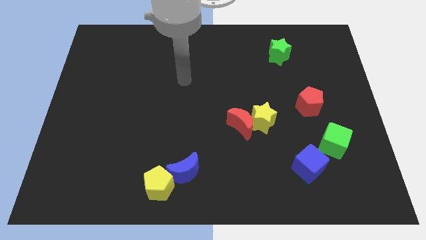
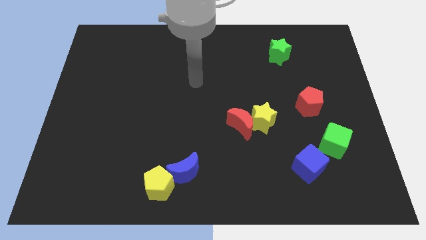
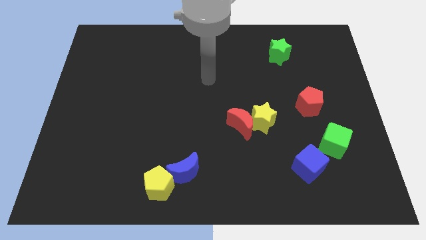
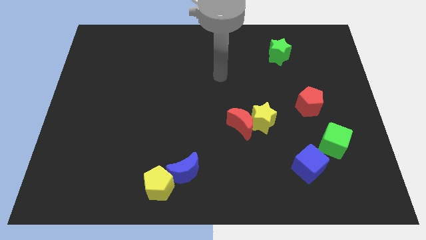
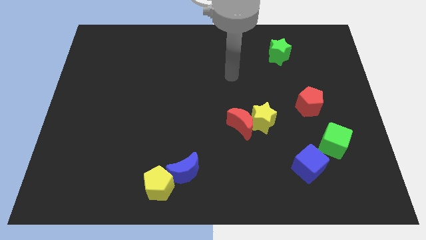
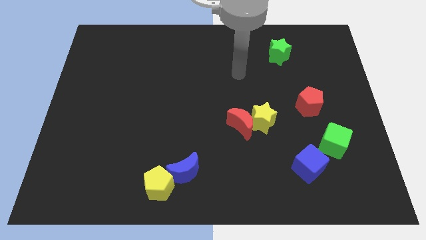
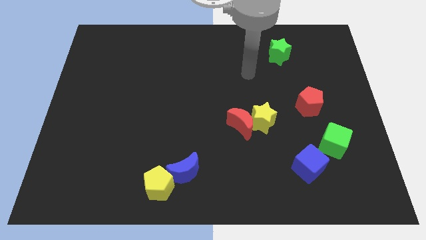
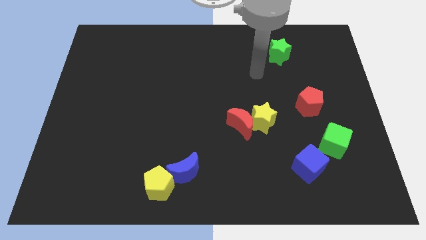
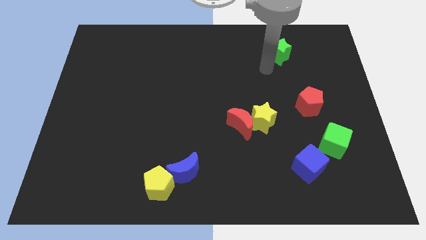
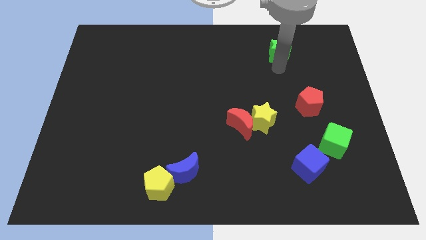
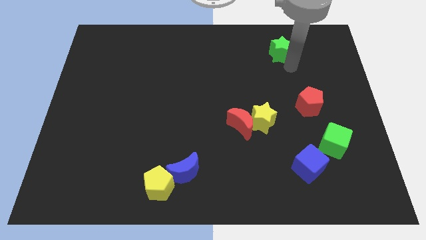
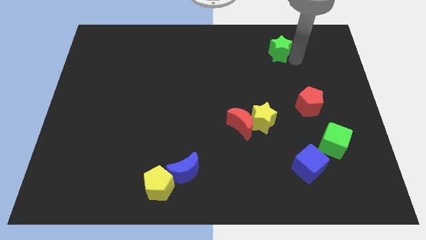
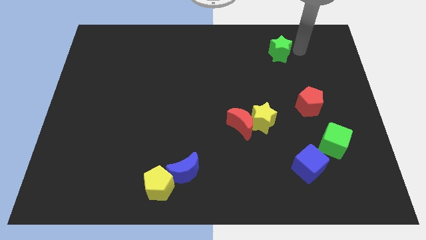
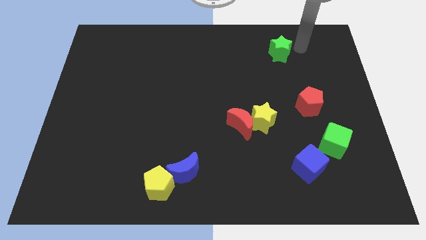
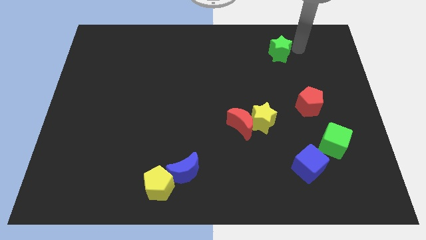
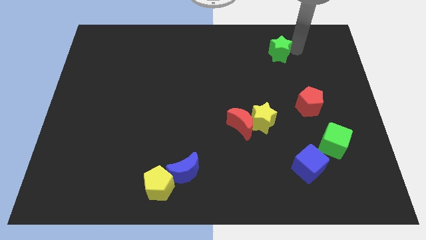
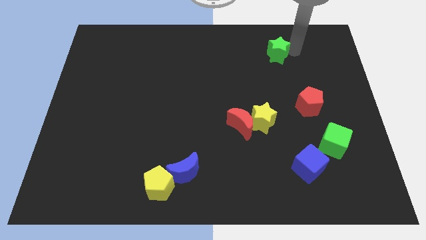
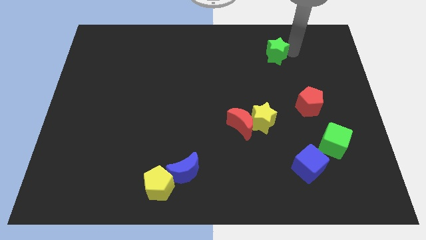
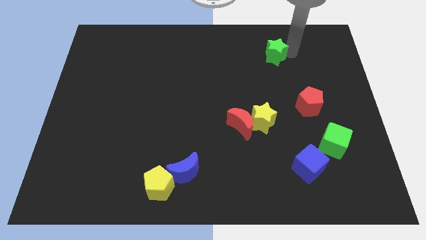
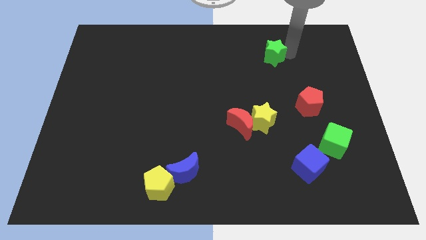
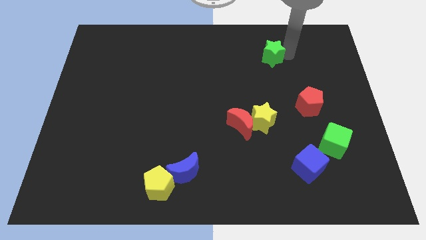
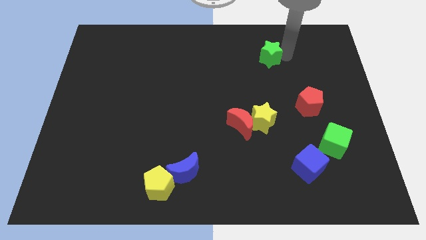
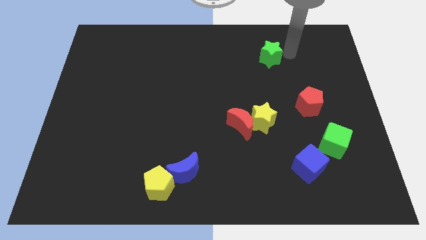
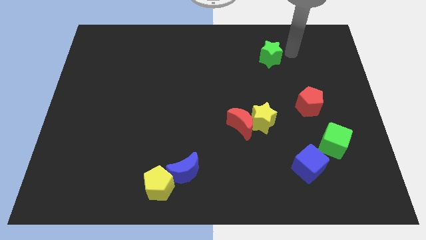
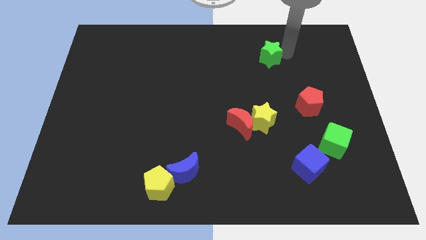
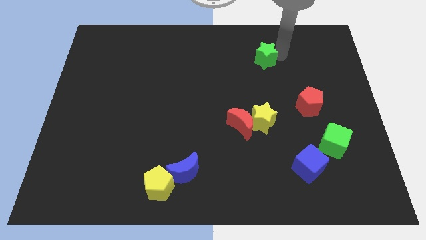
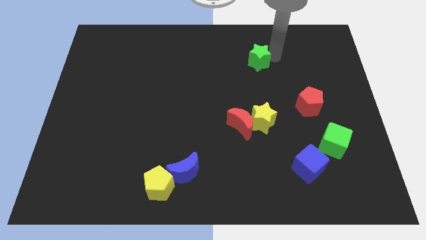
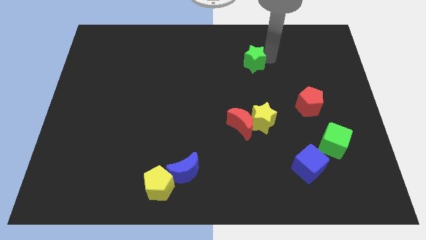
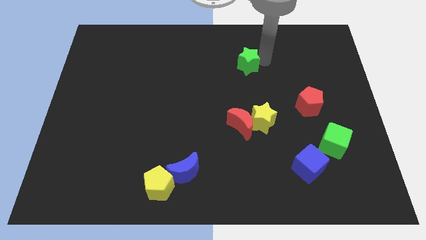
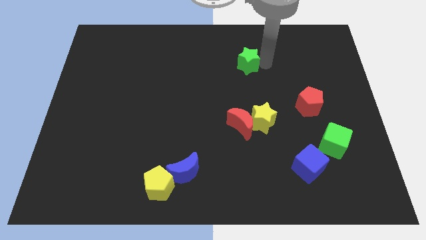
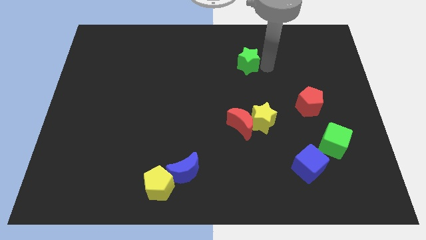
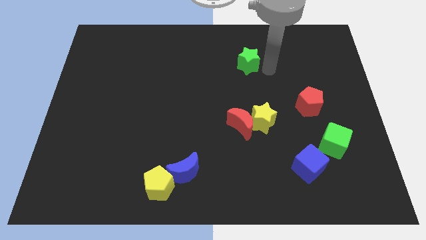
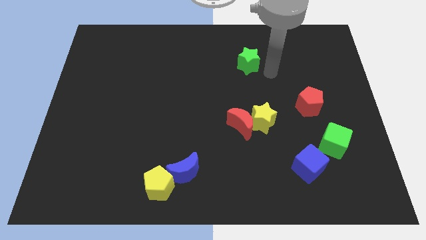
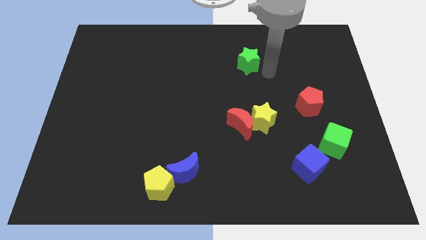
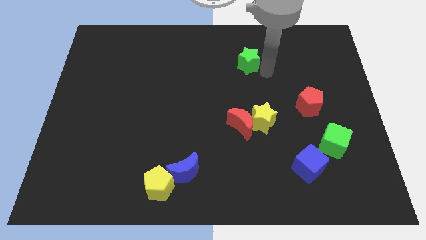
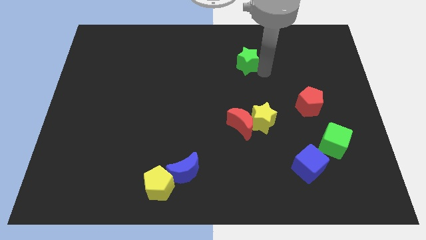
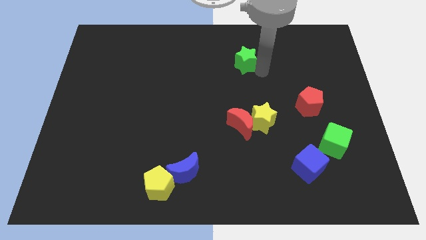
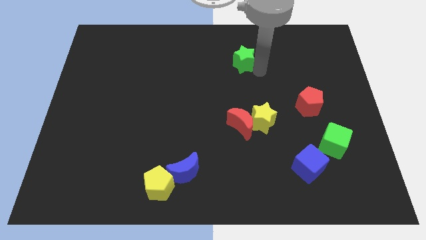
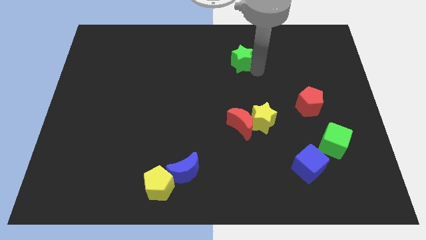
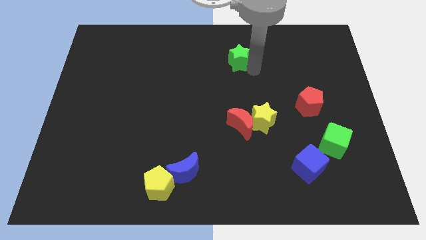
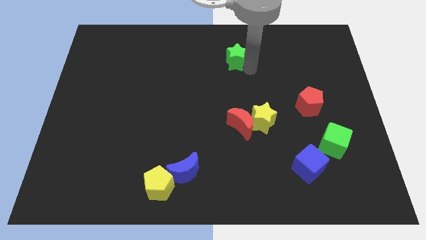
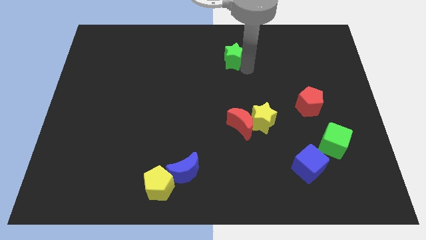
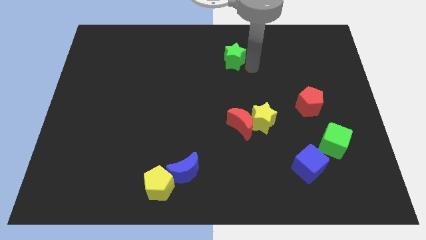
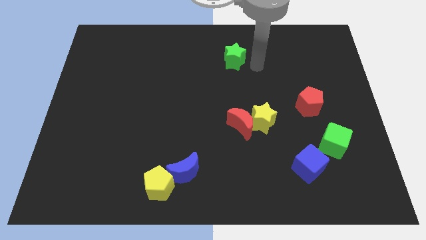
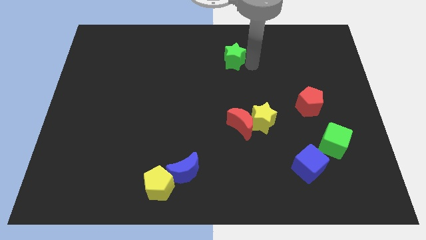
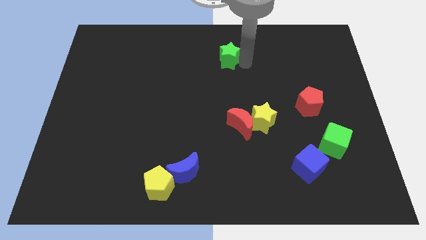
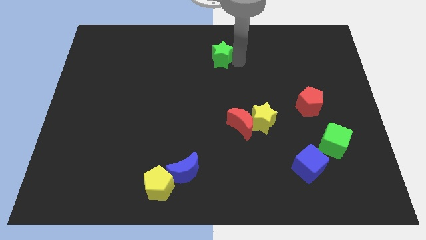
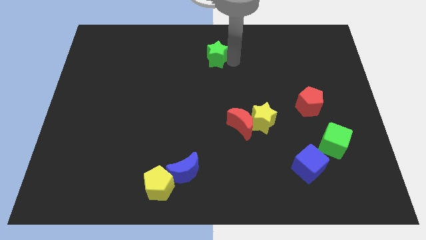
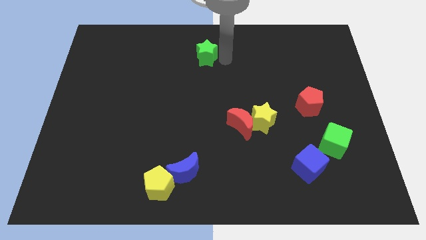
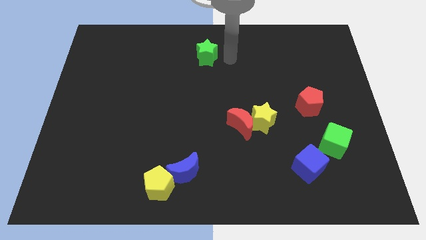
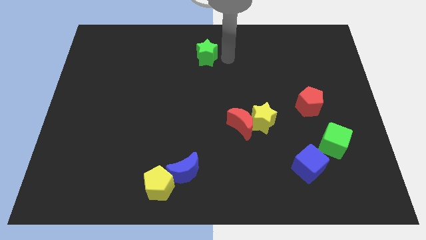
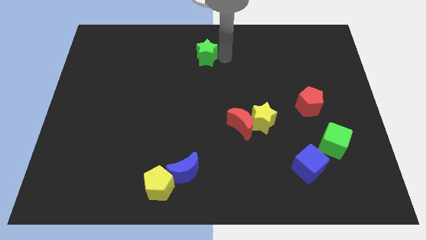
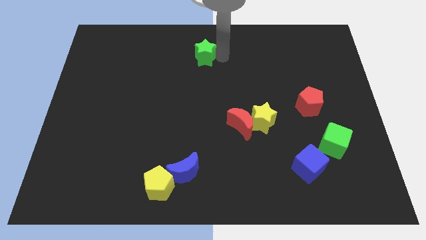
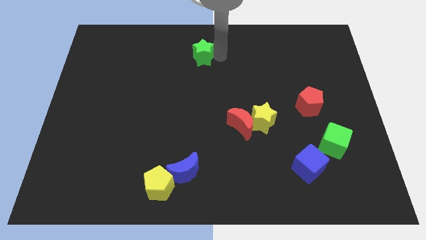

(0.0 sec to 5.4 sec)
slide the green star left

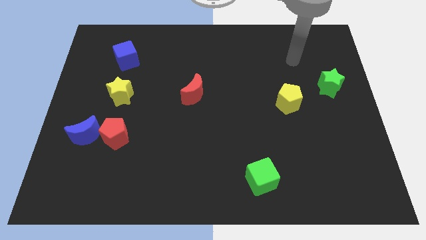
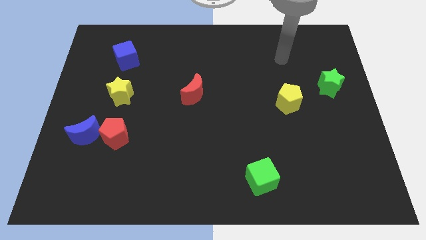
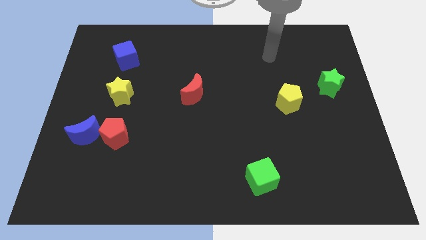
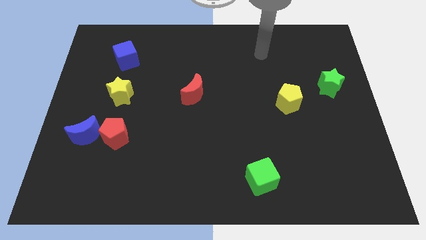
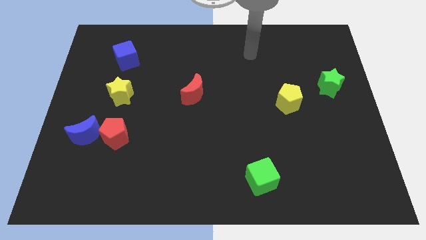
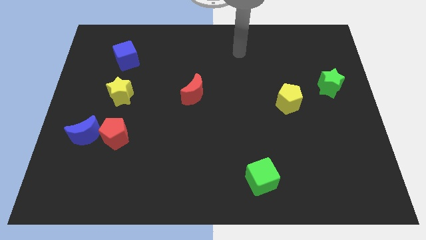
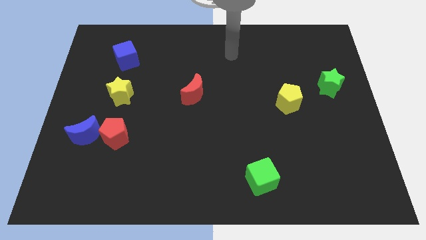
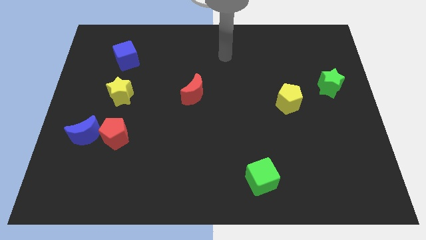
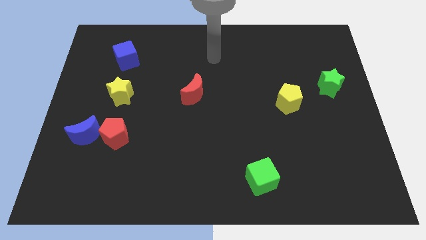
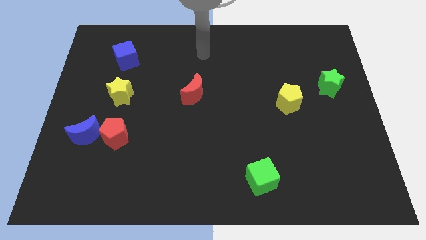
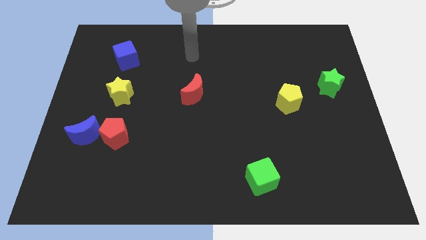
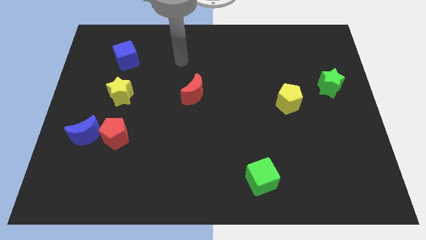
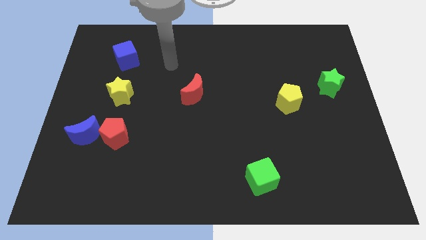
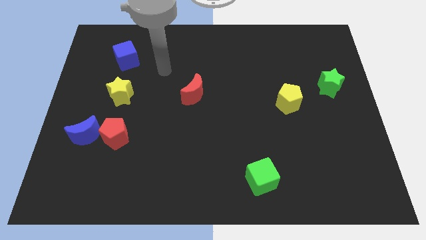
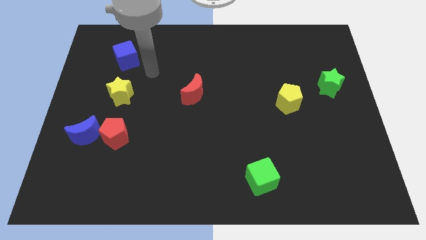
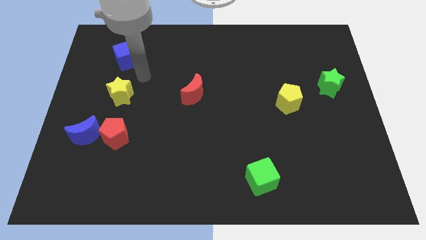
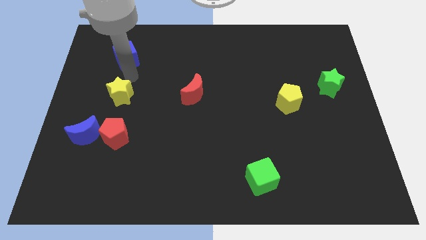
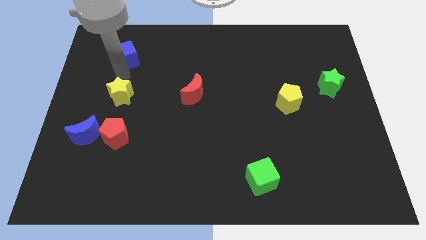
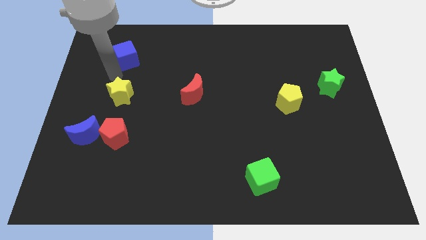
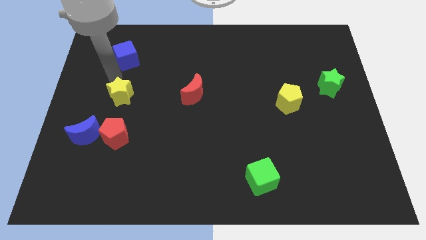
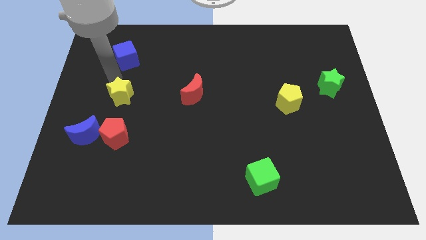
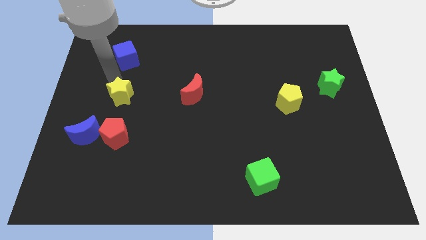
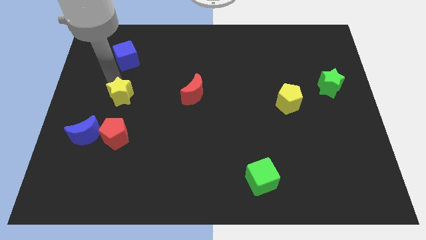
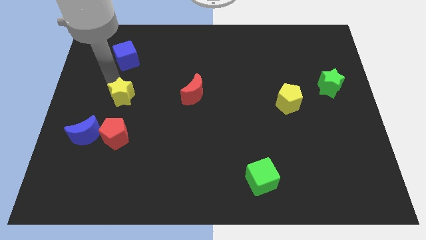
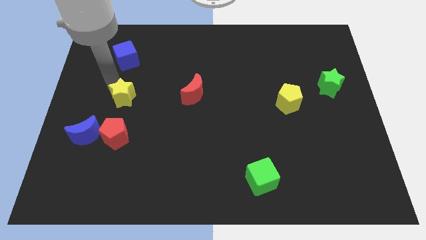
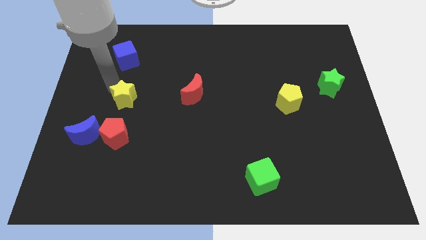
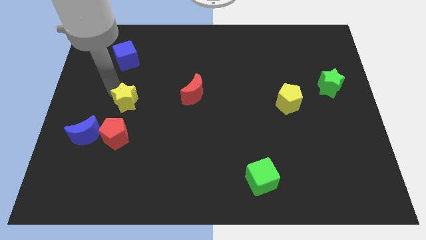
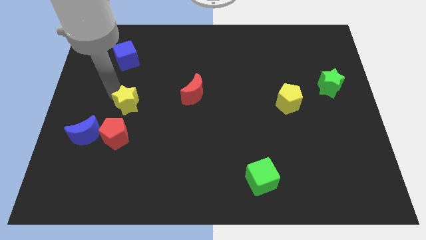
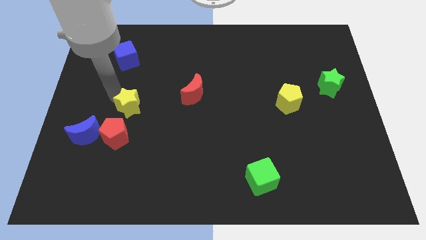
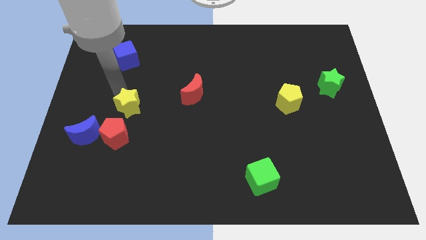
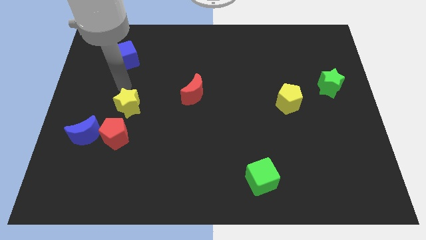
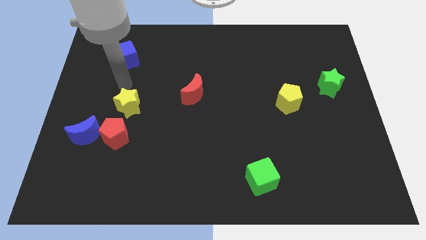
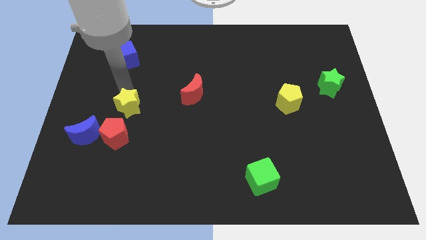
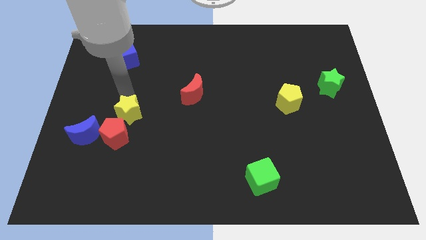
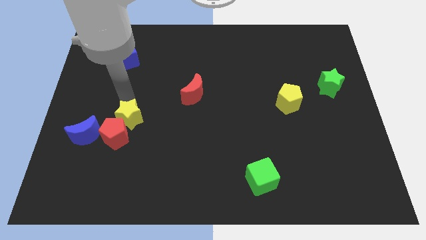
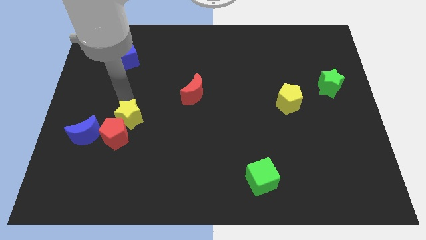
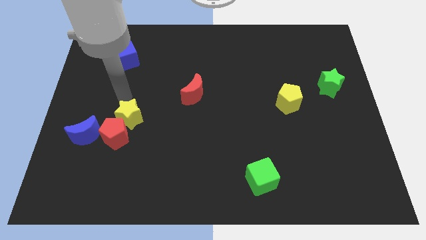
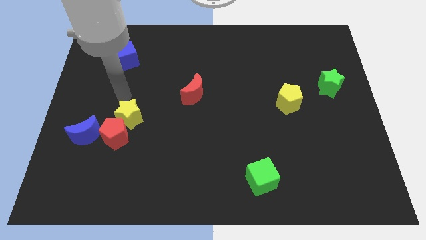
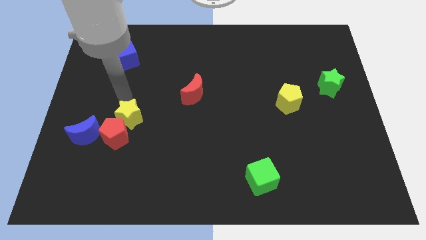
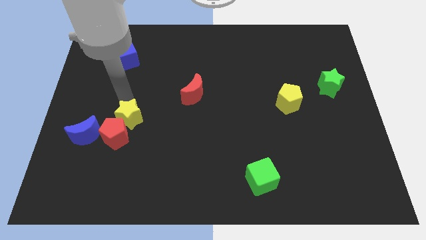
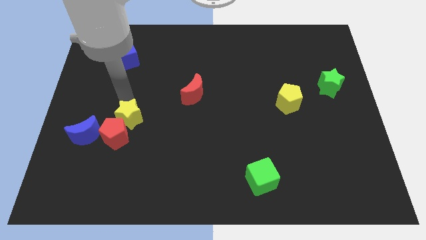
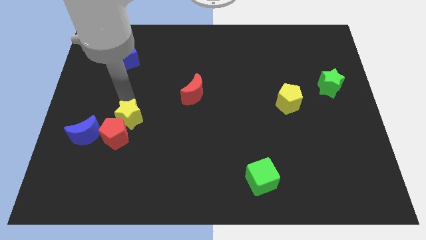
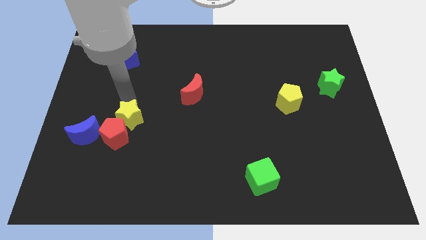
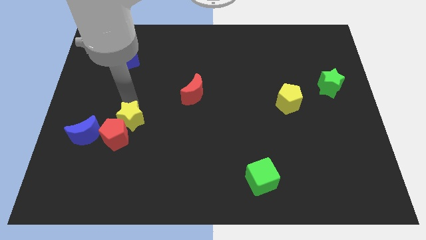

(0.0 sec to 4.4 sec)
slide the yellow star down somewhat
